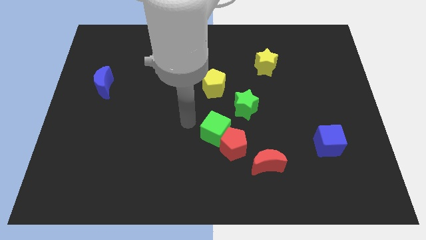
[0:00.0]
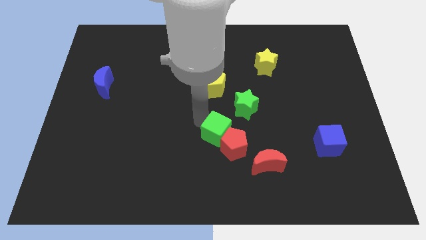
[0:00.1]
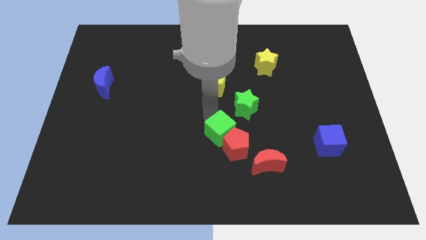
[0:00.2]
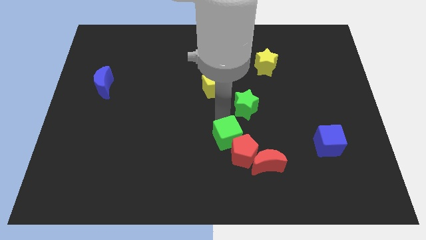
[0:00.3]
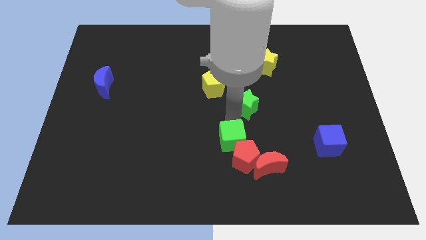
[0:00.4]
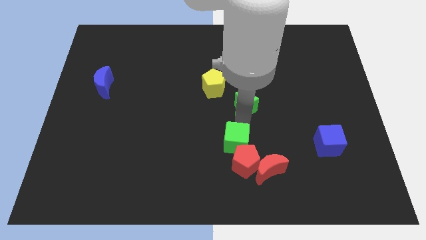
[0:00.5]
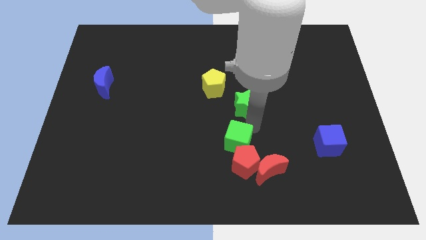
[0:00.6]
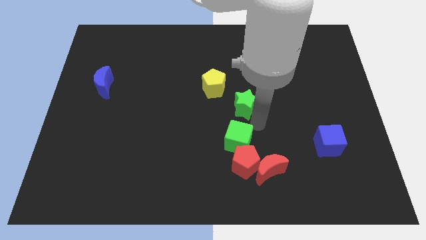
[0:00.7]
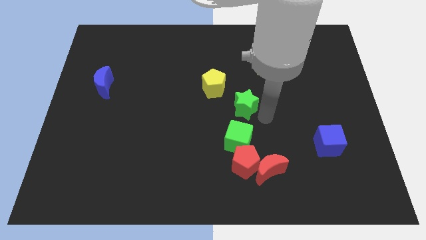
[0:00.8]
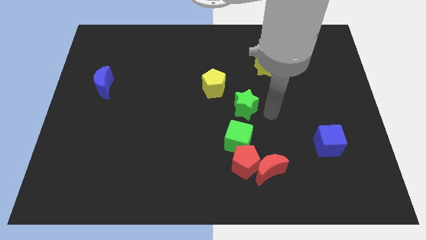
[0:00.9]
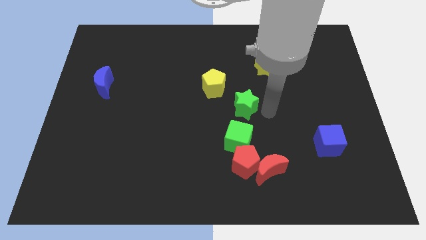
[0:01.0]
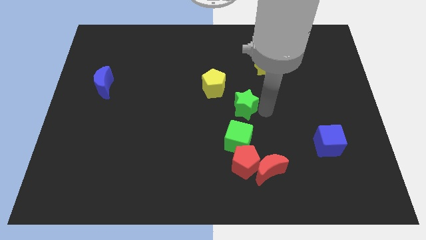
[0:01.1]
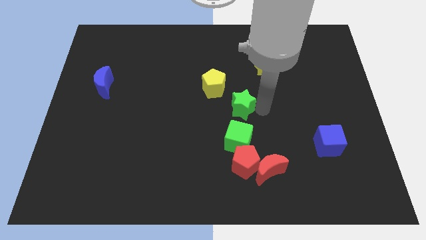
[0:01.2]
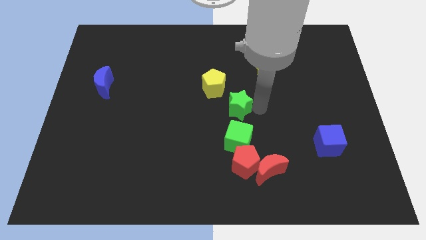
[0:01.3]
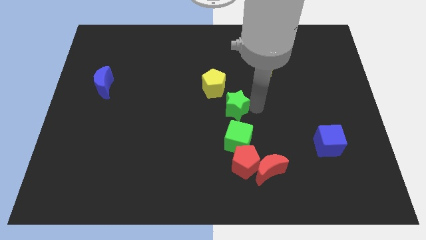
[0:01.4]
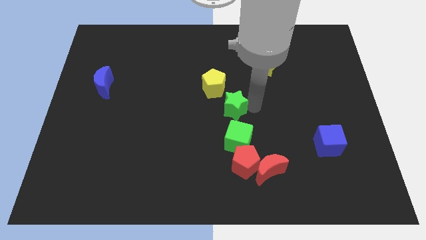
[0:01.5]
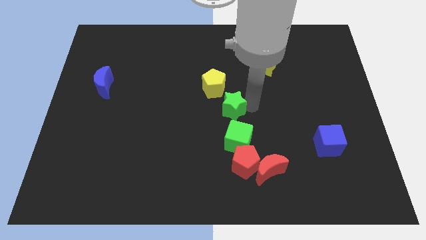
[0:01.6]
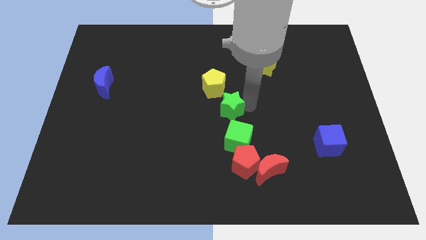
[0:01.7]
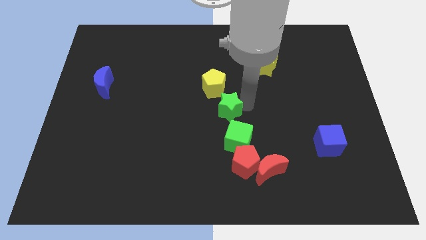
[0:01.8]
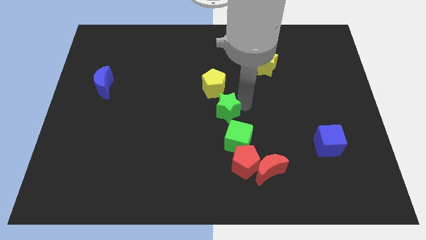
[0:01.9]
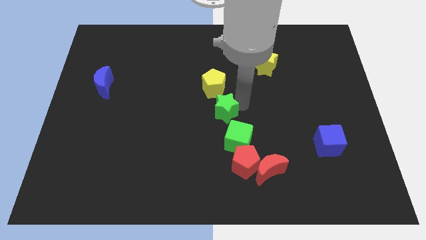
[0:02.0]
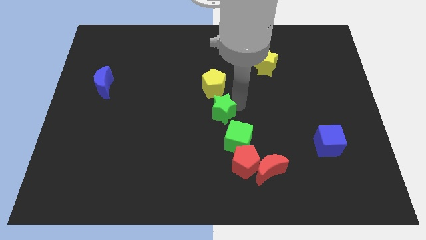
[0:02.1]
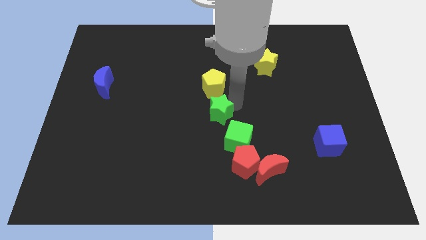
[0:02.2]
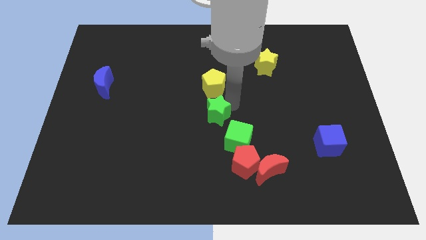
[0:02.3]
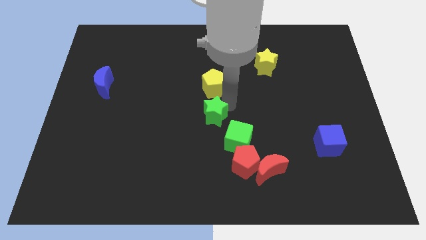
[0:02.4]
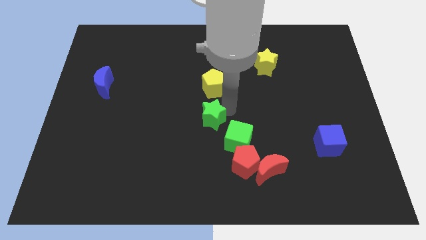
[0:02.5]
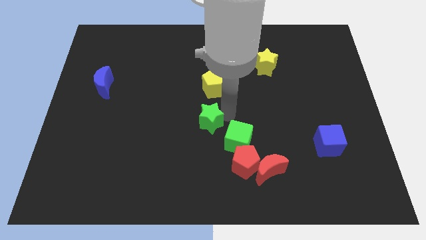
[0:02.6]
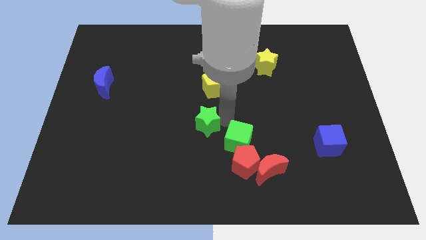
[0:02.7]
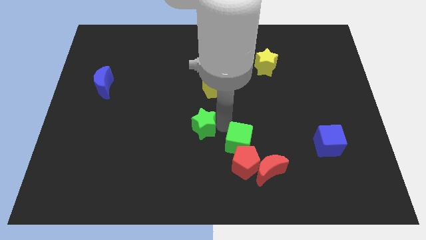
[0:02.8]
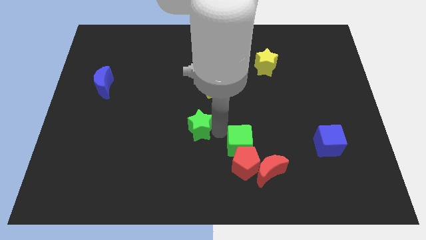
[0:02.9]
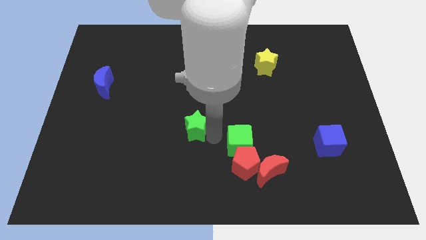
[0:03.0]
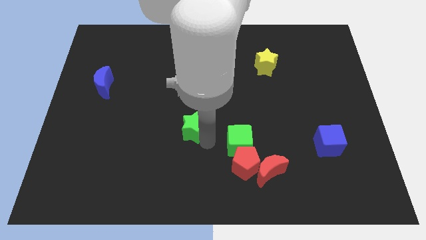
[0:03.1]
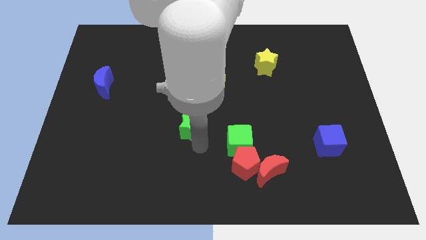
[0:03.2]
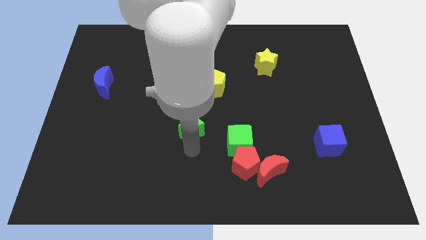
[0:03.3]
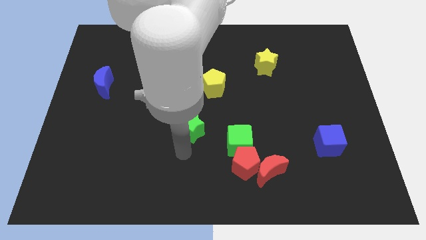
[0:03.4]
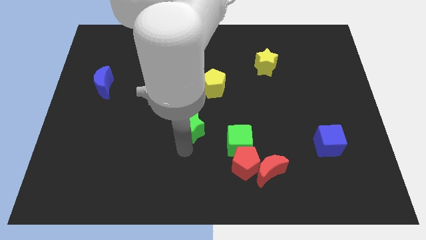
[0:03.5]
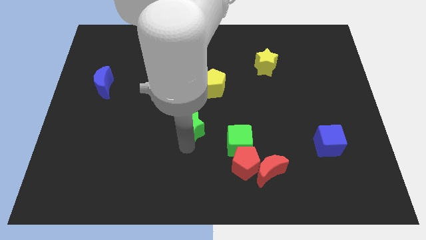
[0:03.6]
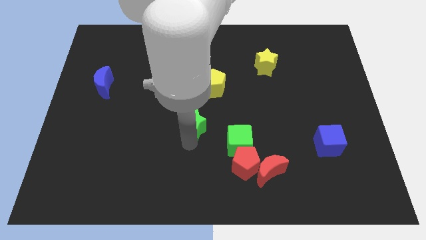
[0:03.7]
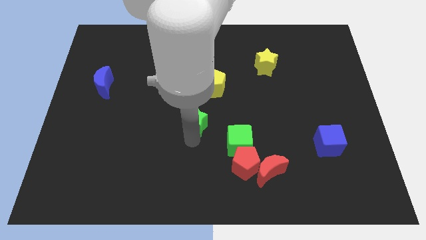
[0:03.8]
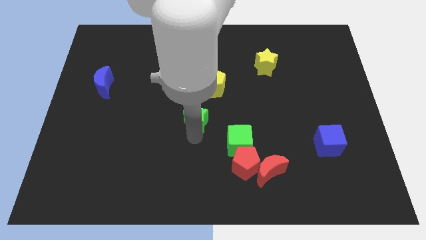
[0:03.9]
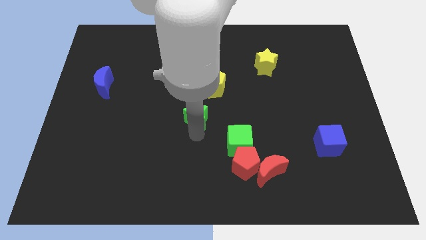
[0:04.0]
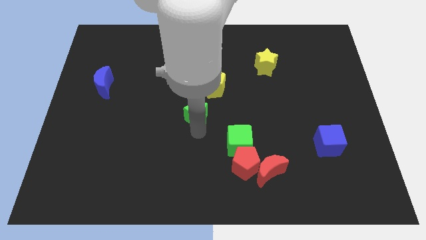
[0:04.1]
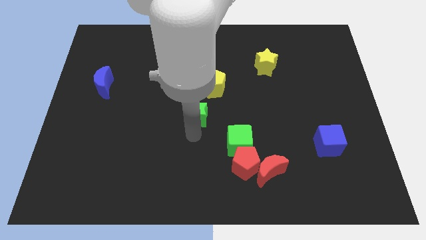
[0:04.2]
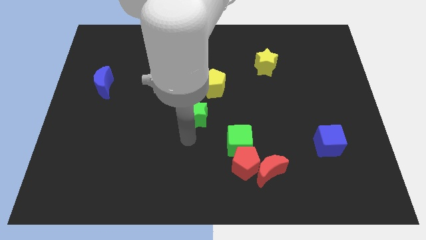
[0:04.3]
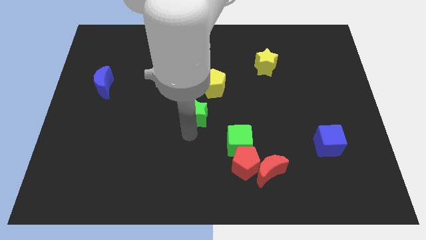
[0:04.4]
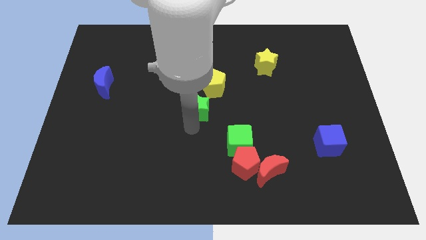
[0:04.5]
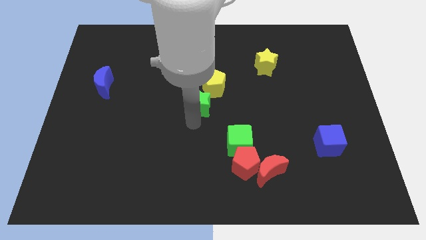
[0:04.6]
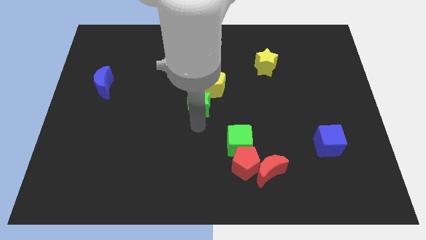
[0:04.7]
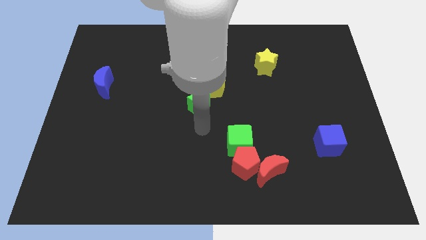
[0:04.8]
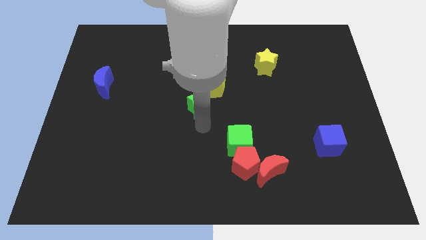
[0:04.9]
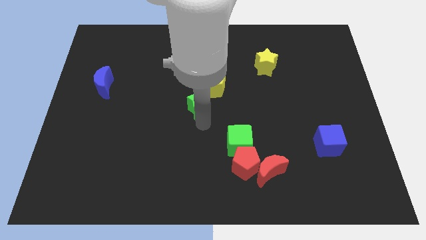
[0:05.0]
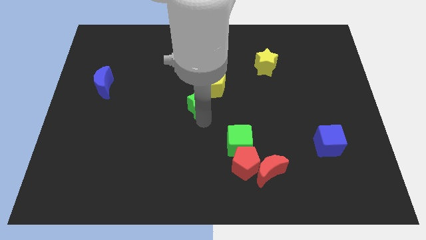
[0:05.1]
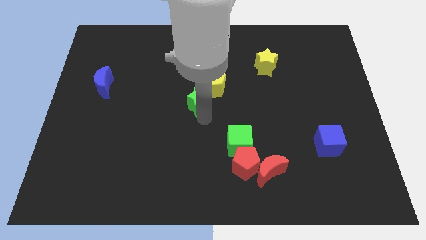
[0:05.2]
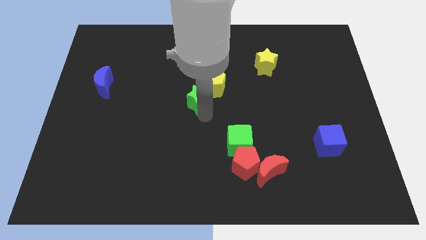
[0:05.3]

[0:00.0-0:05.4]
slightly move the green star up and left

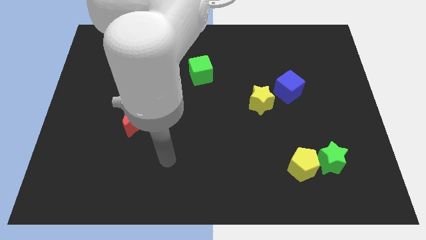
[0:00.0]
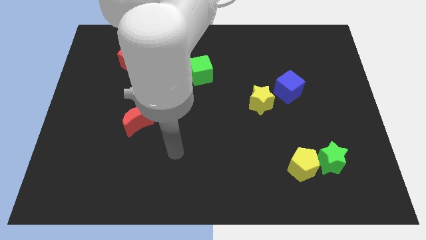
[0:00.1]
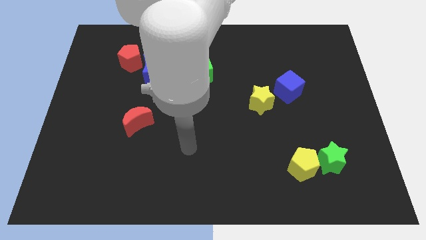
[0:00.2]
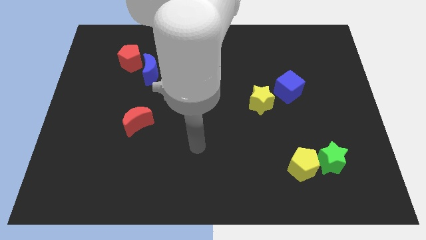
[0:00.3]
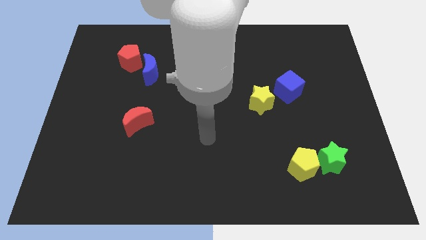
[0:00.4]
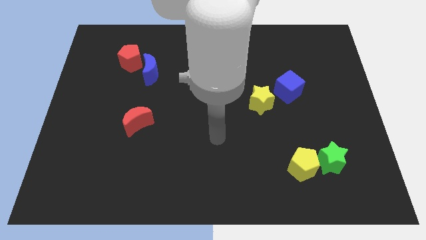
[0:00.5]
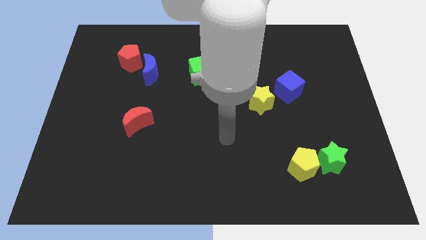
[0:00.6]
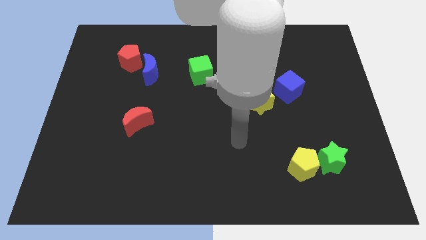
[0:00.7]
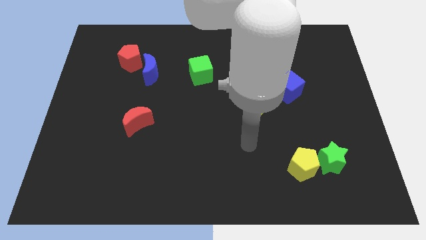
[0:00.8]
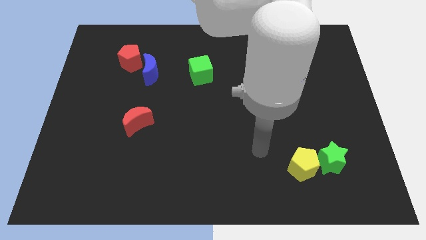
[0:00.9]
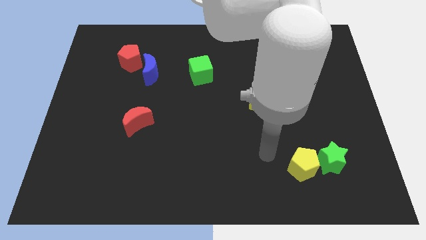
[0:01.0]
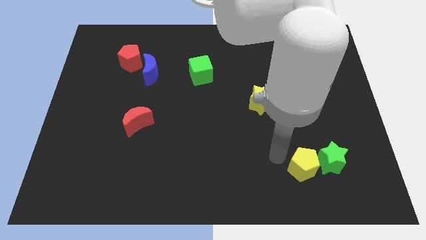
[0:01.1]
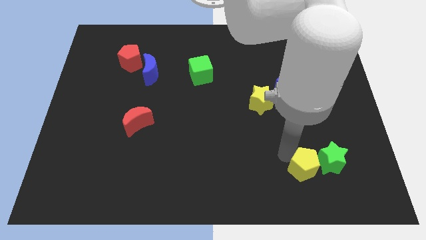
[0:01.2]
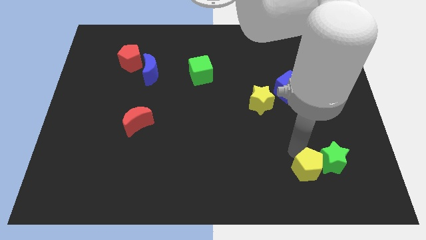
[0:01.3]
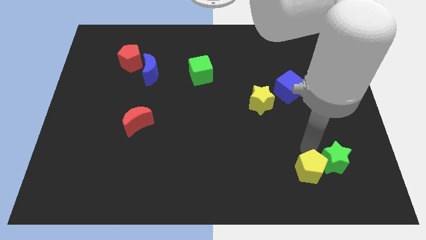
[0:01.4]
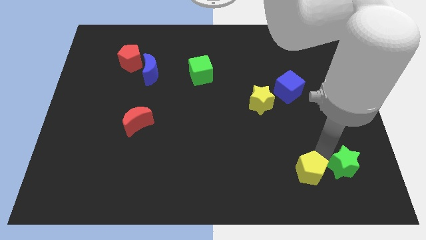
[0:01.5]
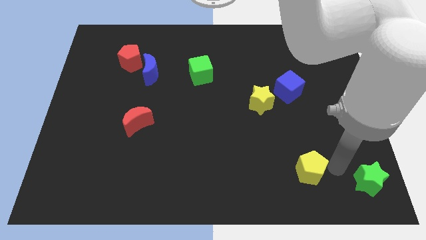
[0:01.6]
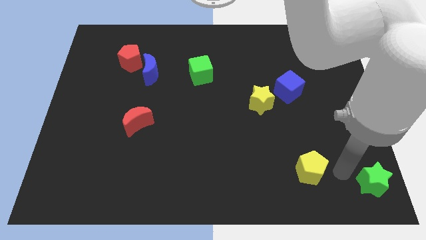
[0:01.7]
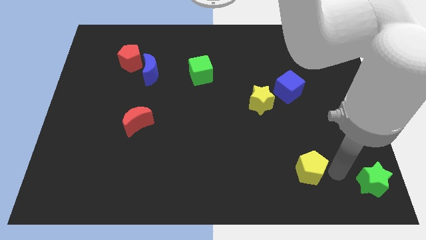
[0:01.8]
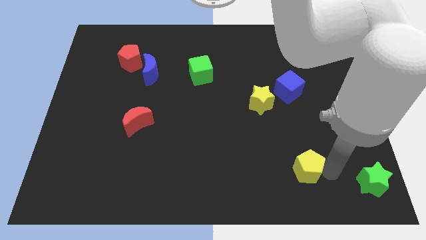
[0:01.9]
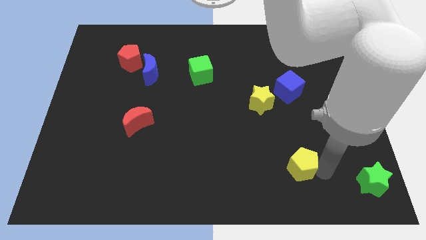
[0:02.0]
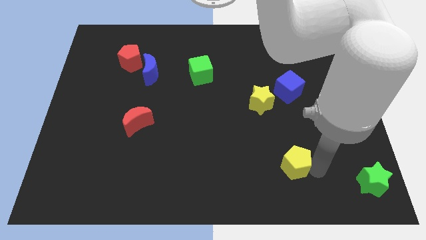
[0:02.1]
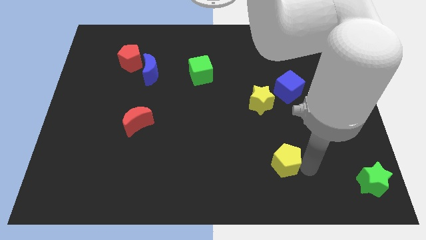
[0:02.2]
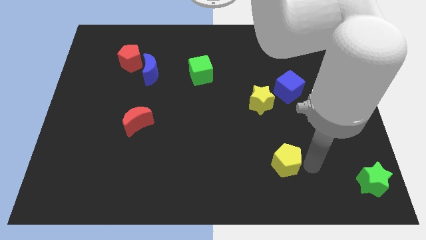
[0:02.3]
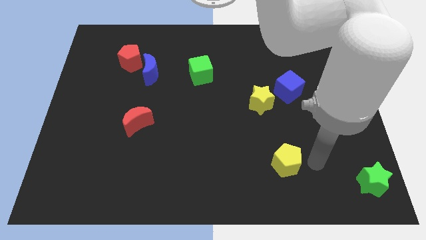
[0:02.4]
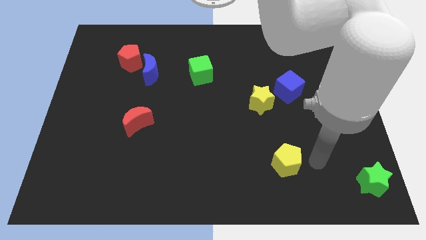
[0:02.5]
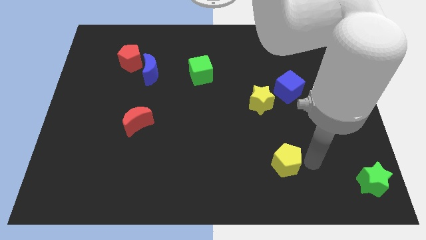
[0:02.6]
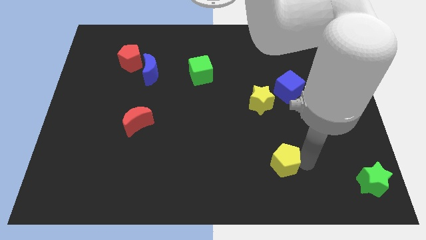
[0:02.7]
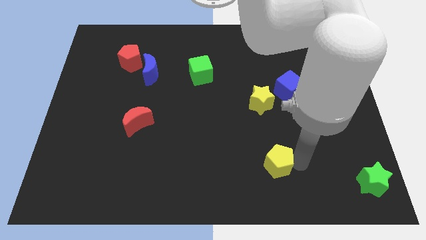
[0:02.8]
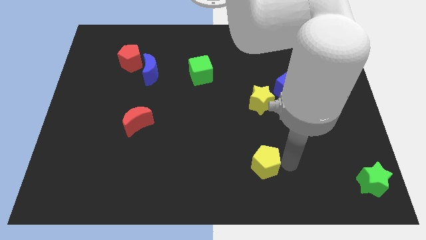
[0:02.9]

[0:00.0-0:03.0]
slightly move the yellow pentagon left
